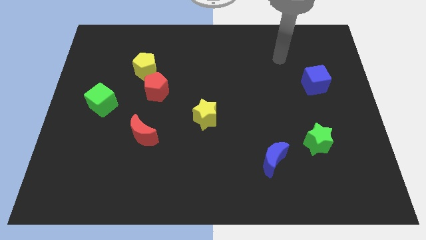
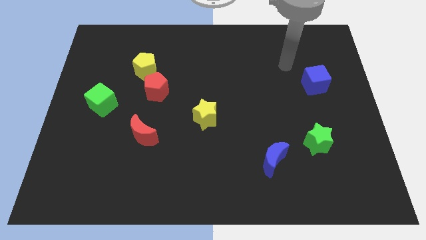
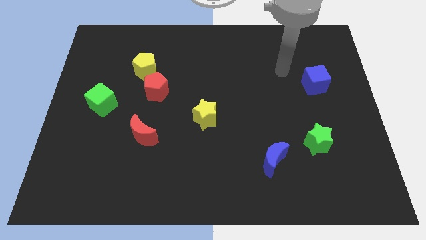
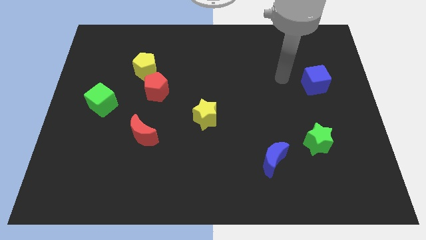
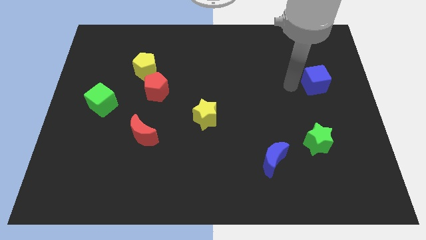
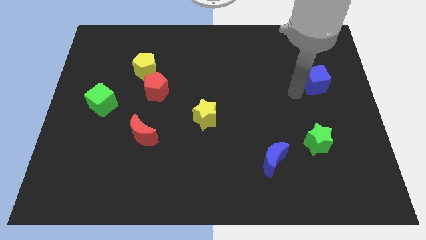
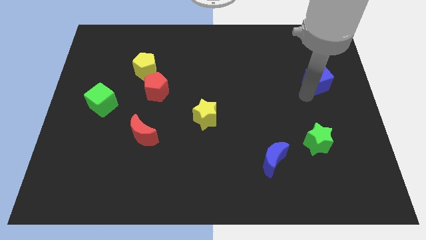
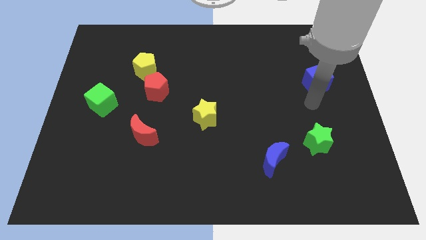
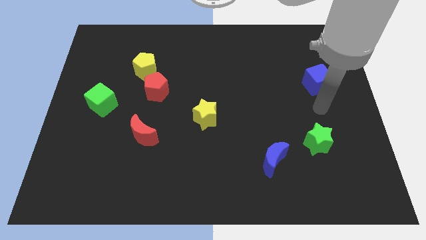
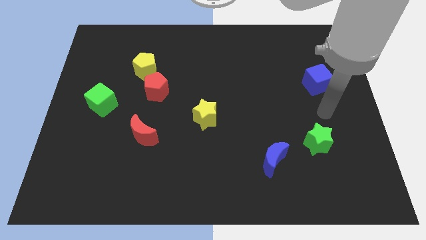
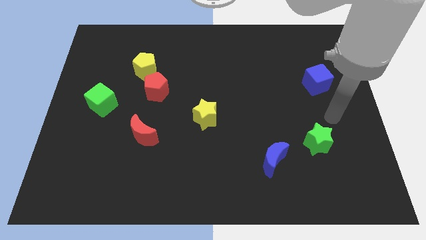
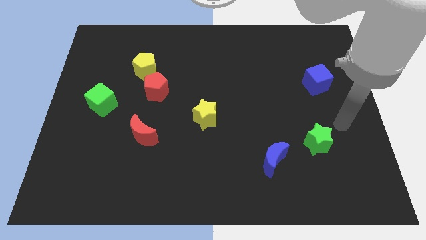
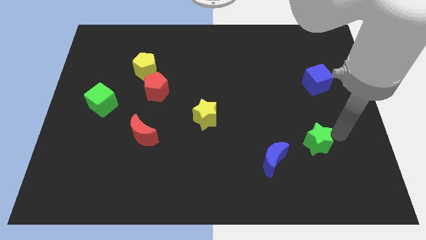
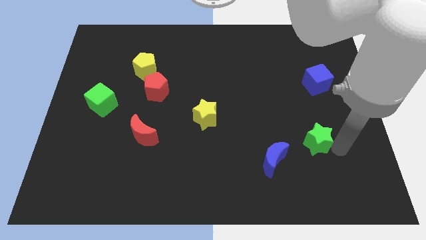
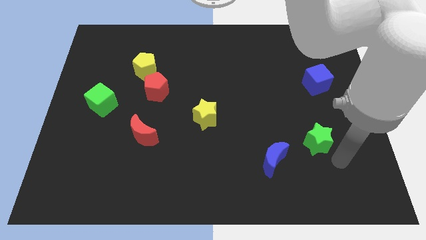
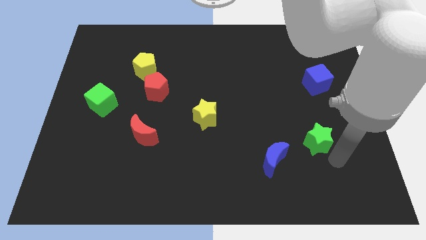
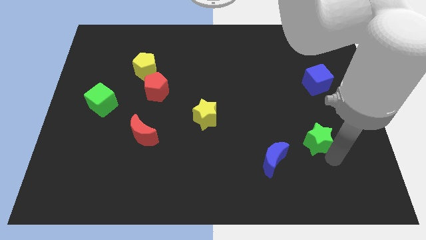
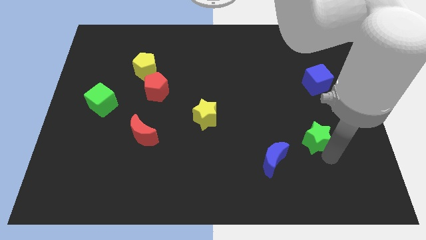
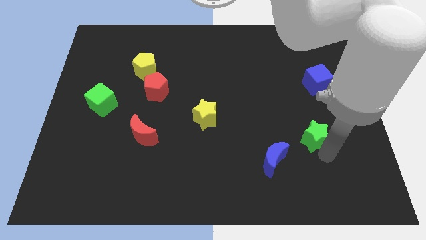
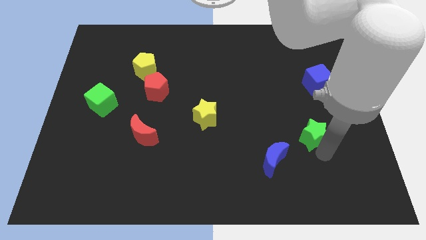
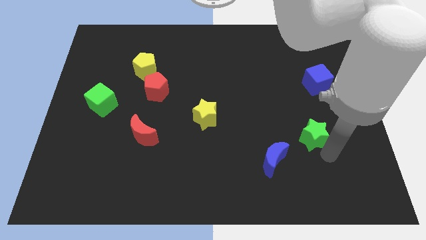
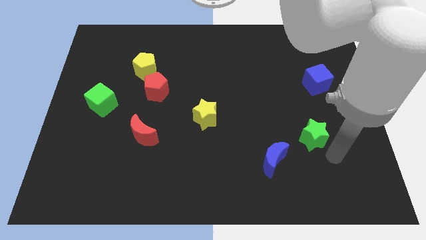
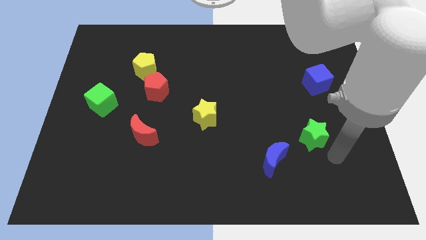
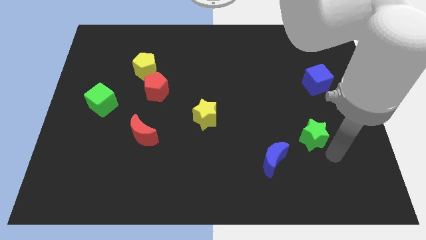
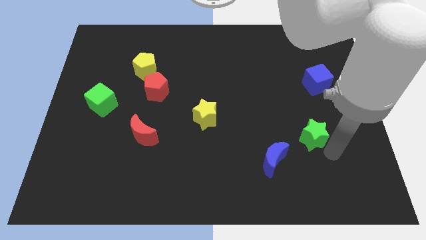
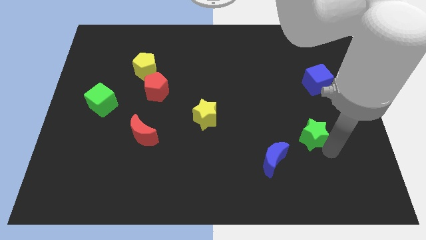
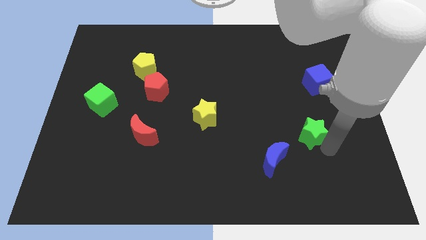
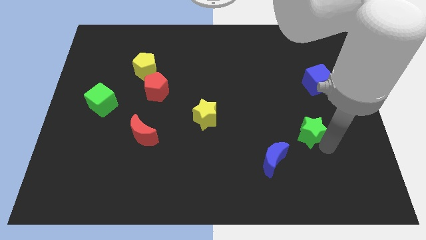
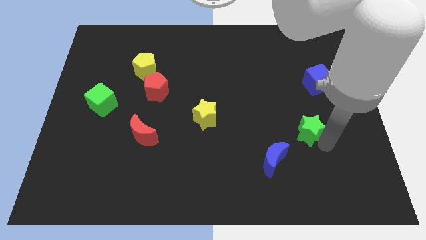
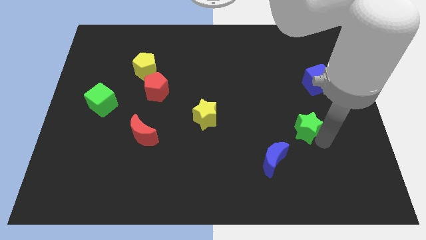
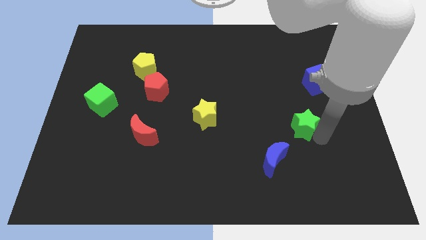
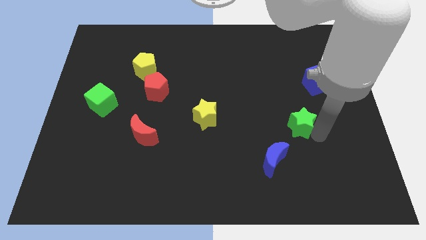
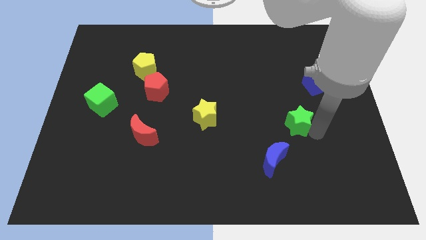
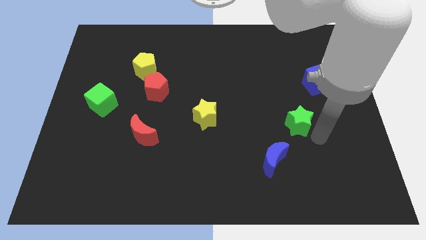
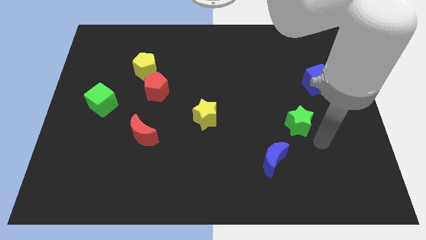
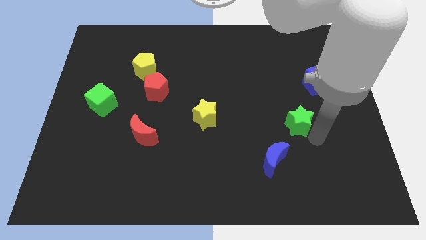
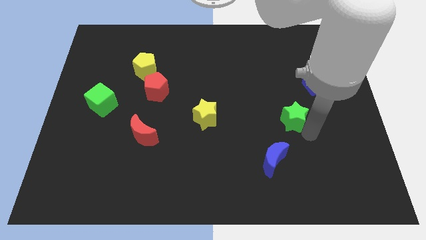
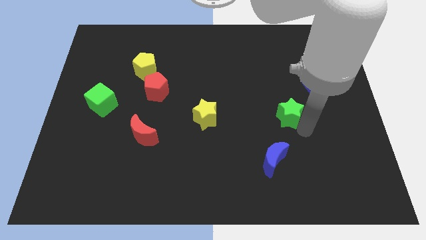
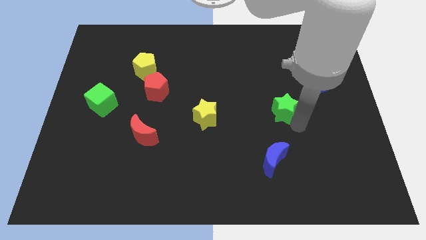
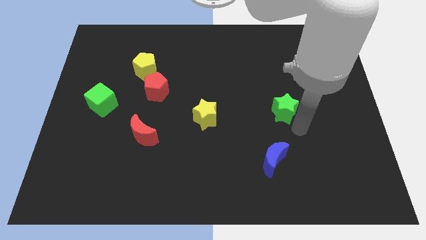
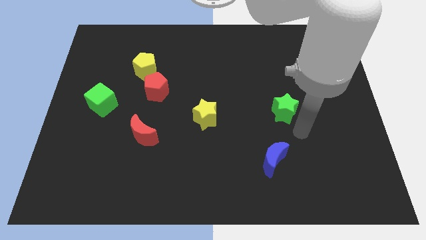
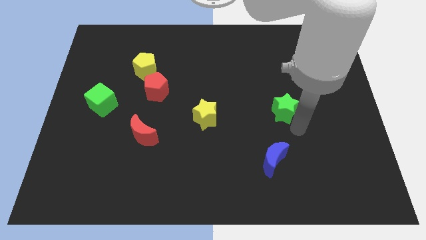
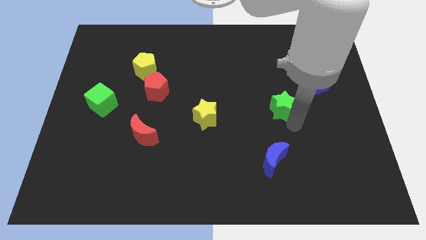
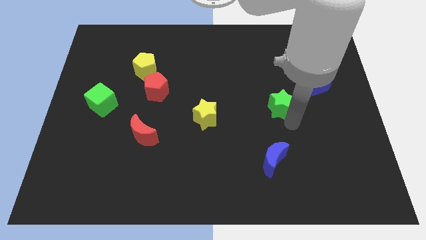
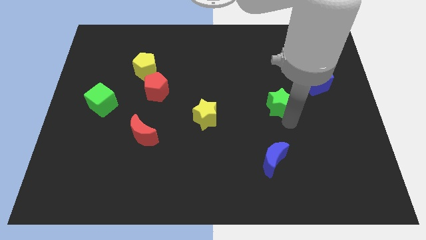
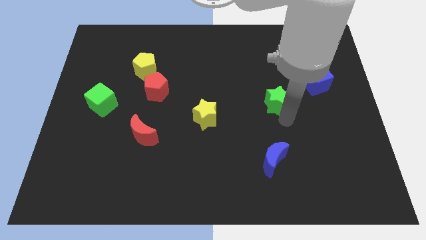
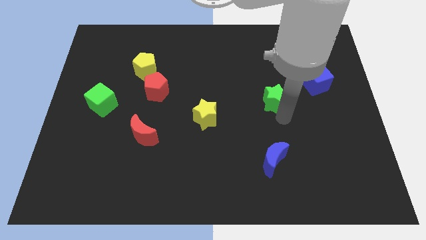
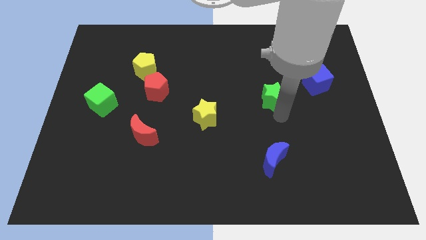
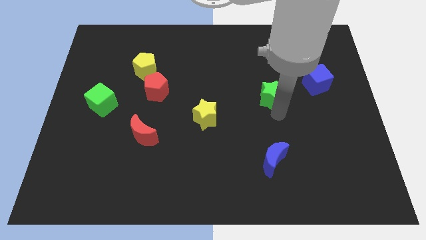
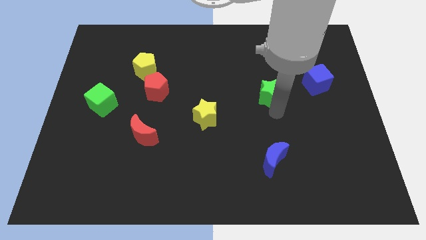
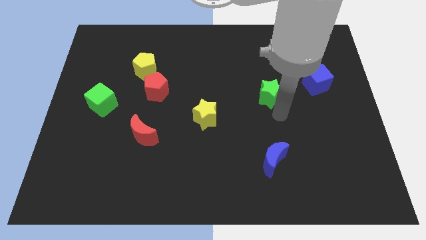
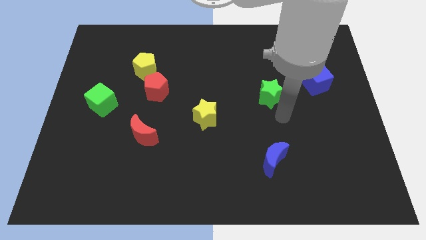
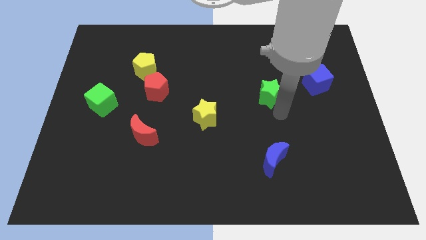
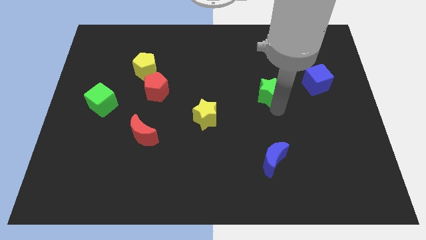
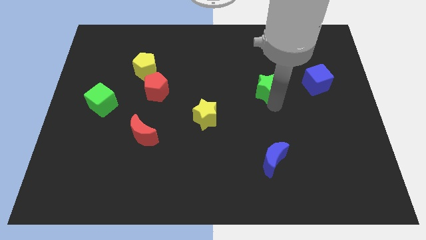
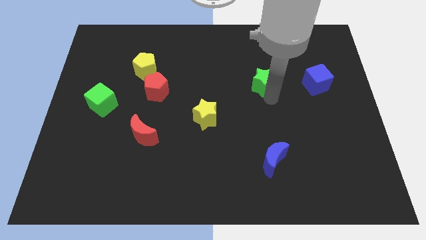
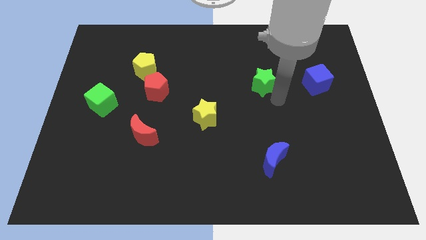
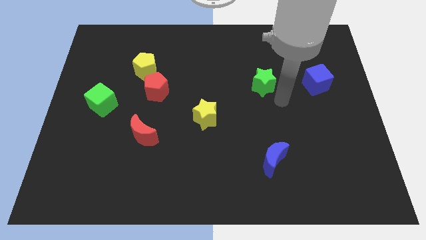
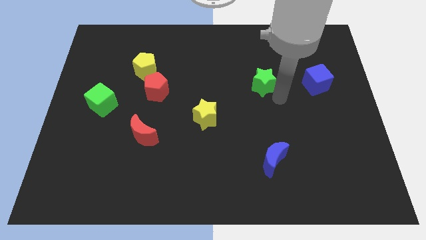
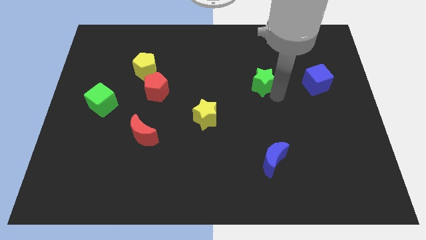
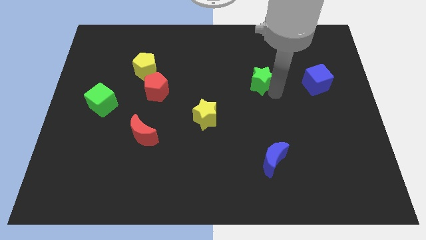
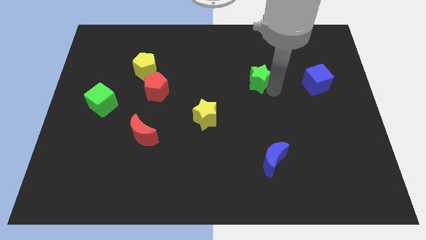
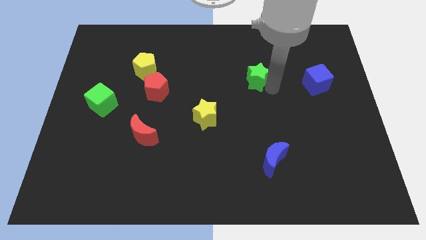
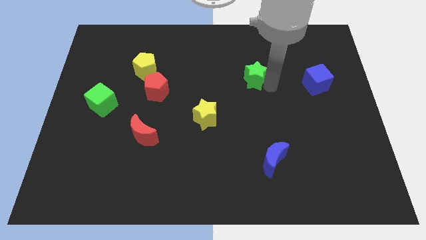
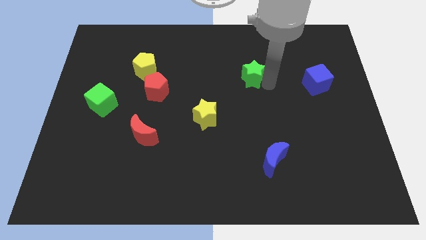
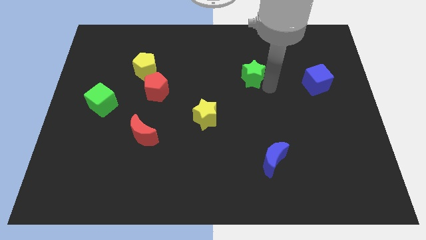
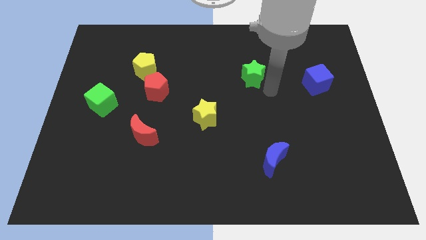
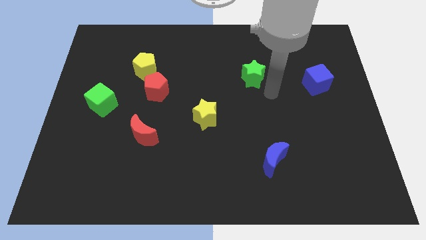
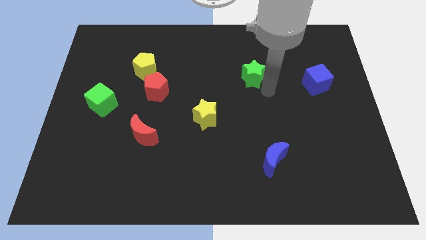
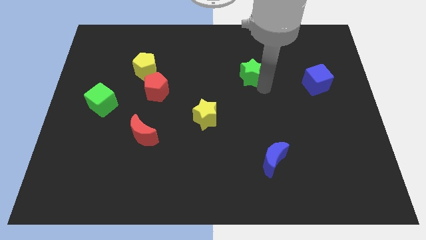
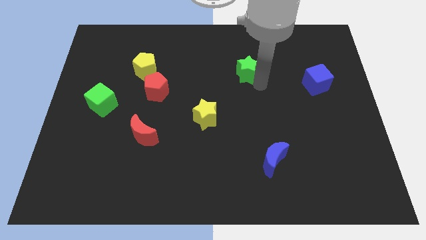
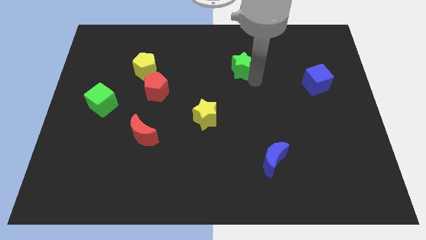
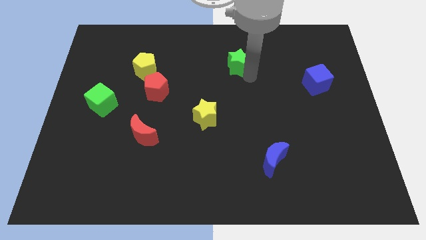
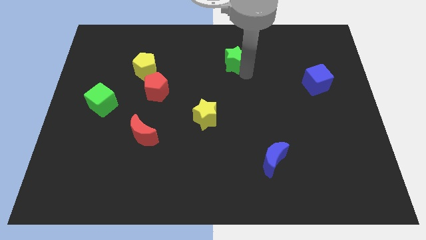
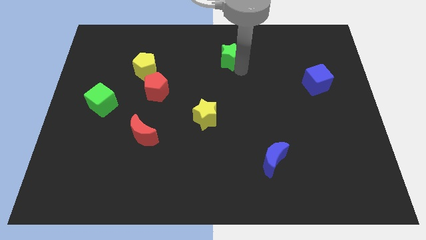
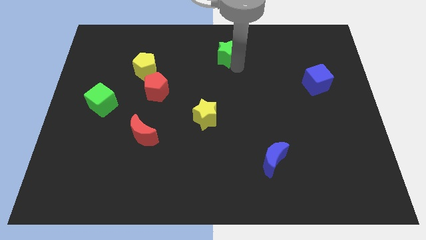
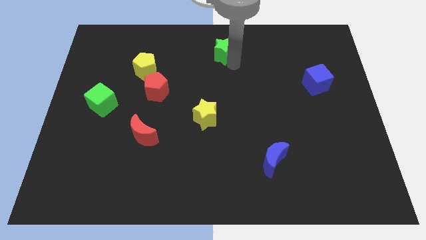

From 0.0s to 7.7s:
push the green star to the top side
